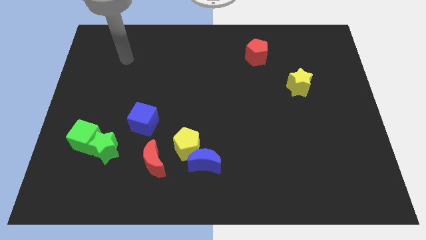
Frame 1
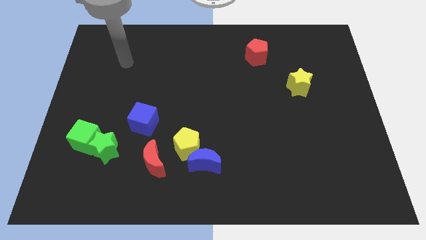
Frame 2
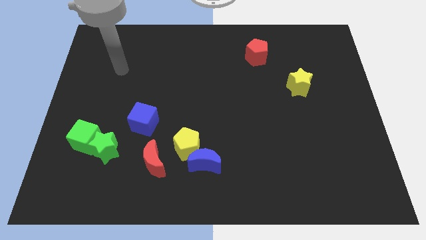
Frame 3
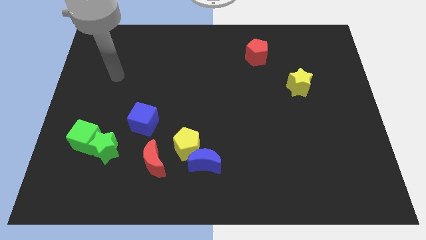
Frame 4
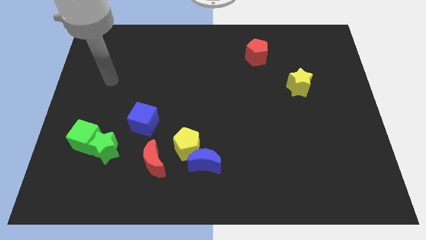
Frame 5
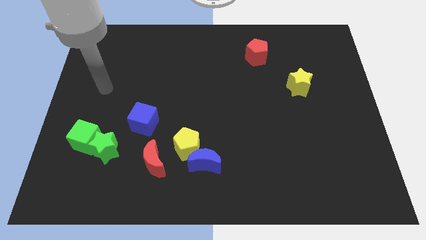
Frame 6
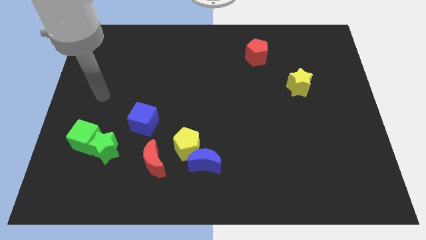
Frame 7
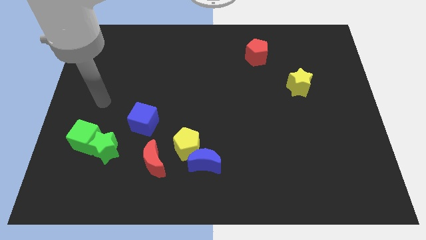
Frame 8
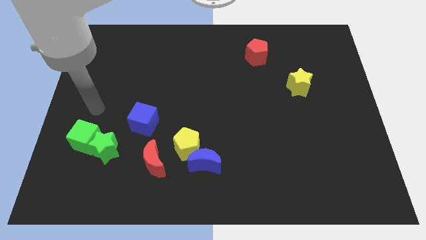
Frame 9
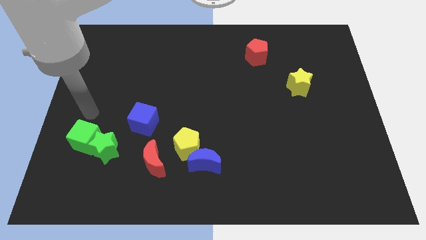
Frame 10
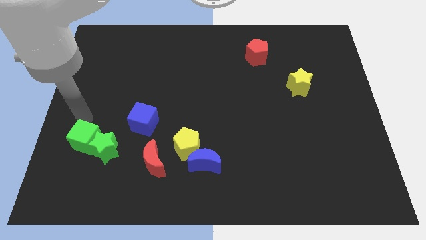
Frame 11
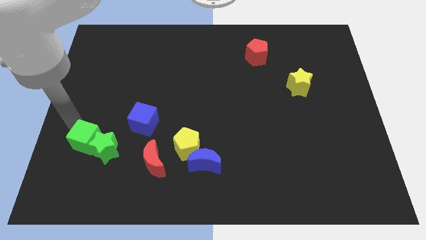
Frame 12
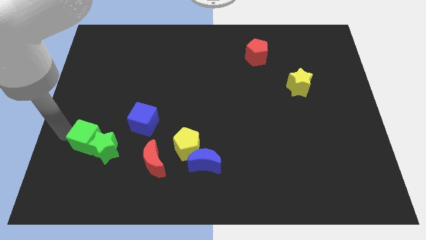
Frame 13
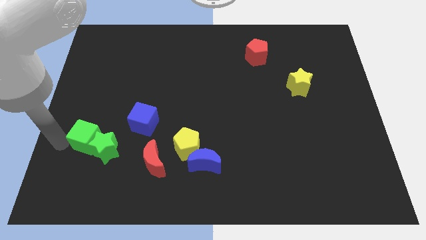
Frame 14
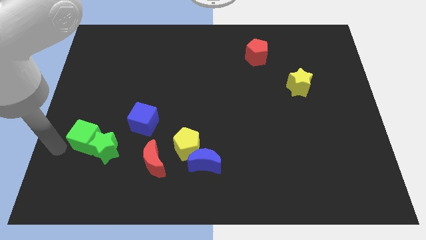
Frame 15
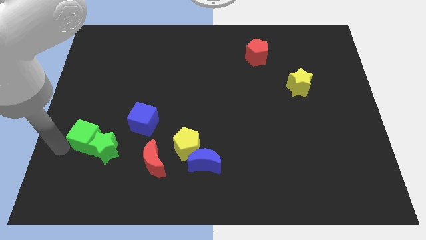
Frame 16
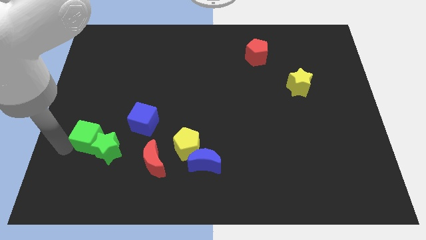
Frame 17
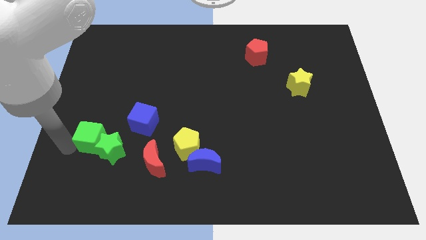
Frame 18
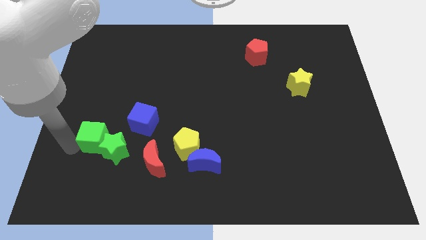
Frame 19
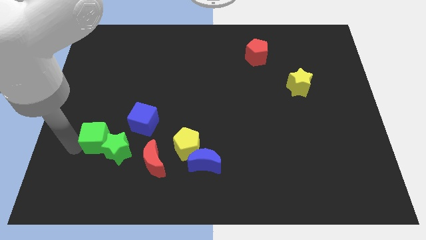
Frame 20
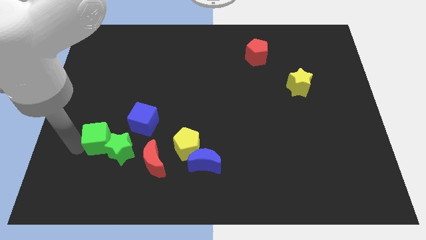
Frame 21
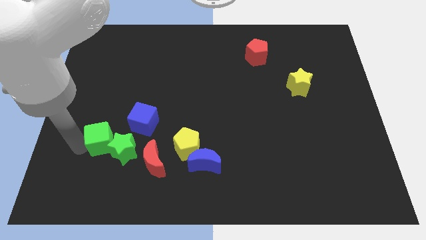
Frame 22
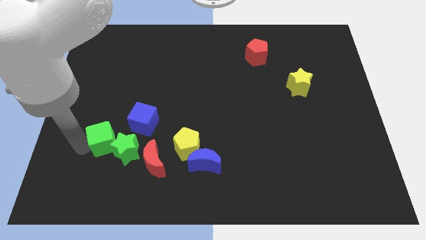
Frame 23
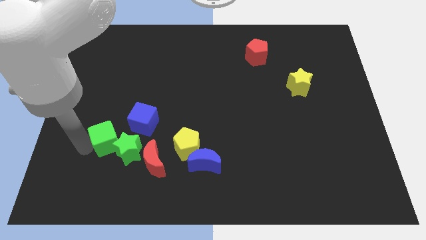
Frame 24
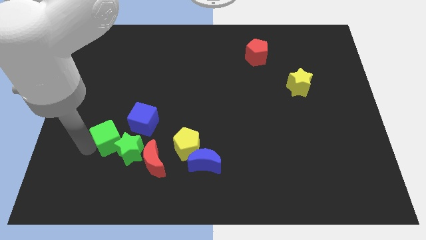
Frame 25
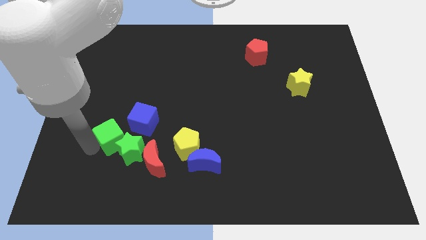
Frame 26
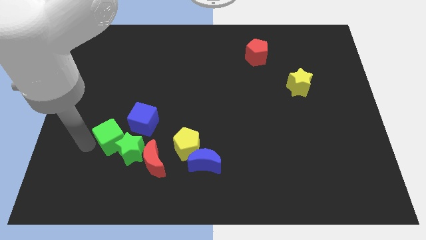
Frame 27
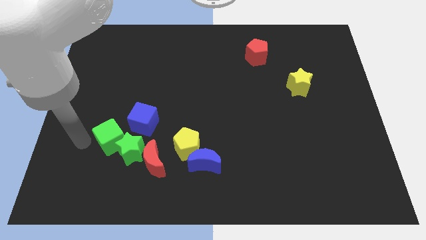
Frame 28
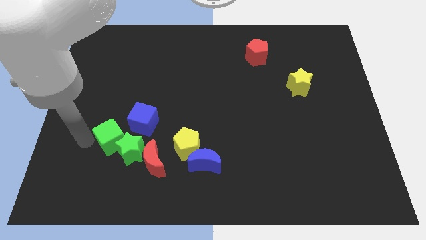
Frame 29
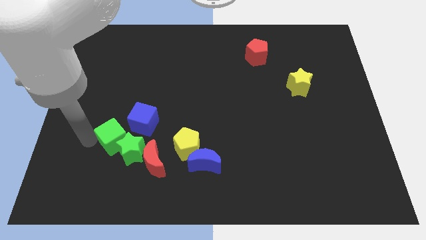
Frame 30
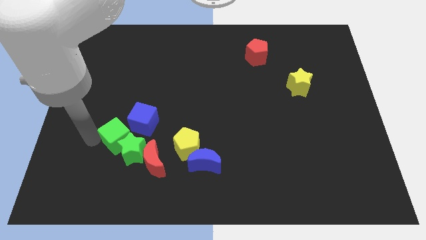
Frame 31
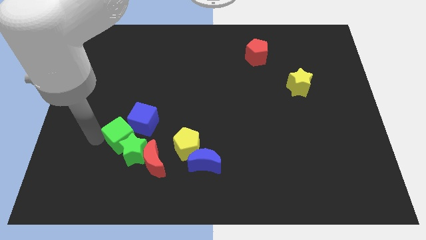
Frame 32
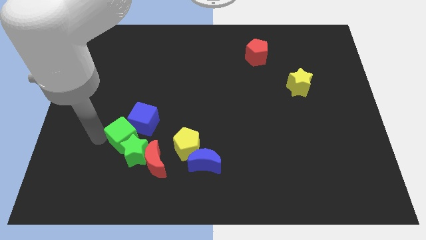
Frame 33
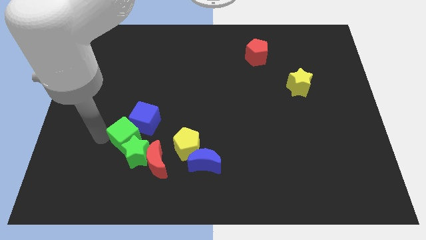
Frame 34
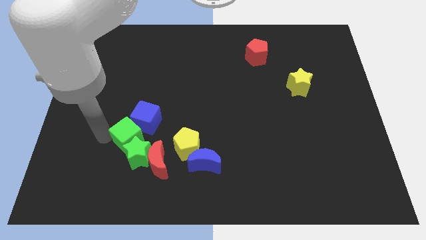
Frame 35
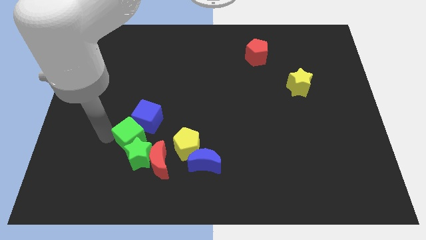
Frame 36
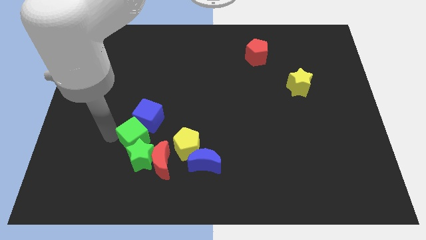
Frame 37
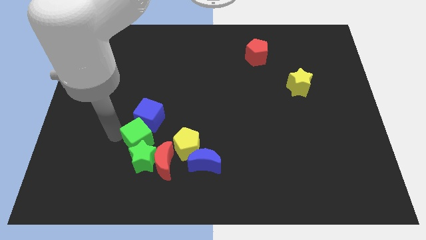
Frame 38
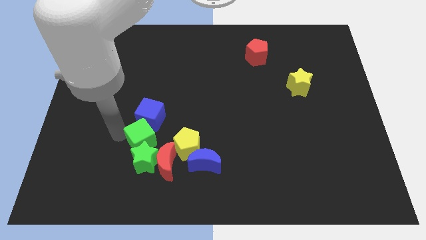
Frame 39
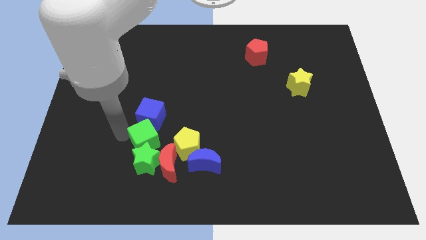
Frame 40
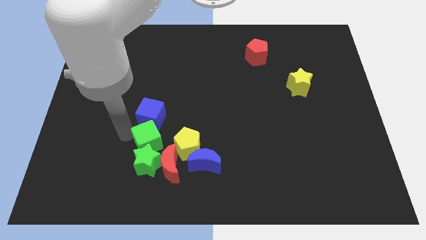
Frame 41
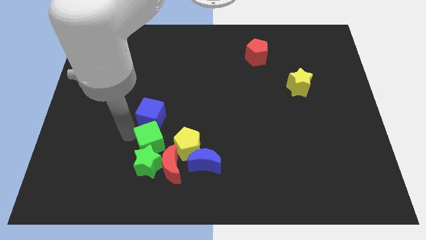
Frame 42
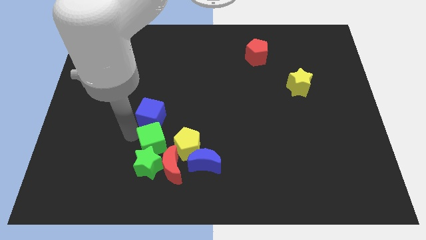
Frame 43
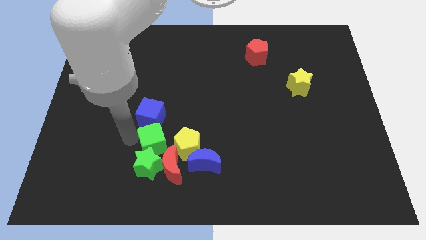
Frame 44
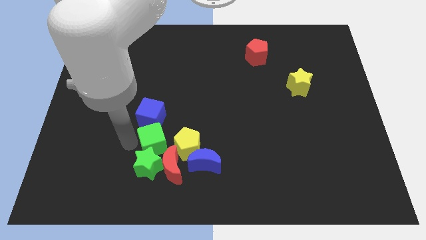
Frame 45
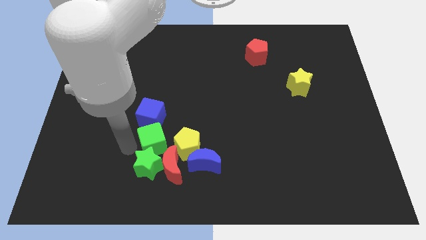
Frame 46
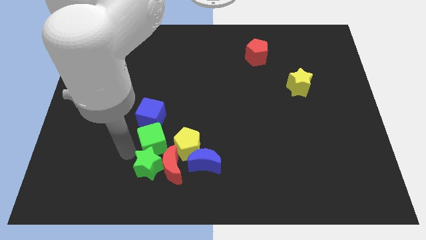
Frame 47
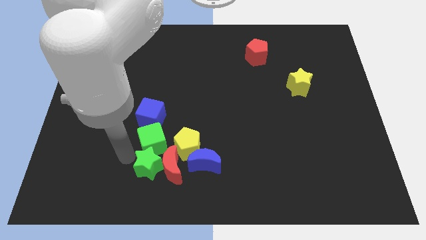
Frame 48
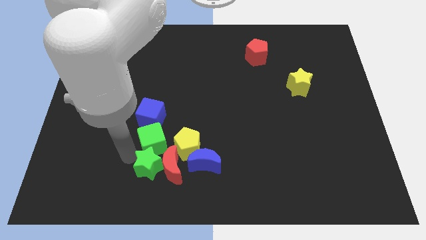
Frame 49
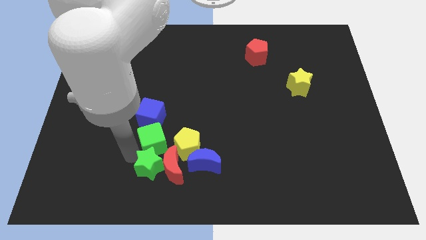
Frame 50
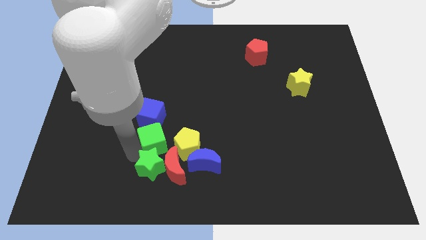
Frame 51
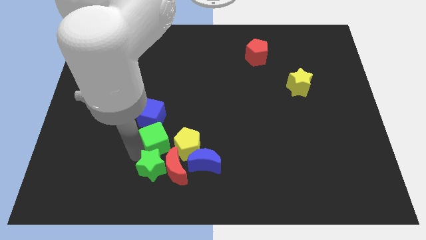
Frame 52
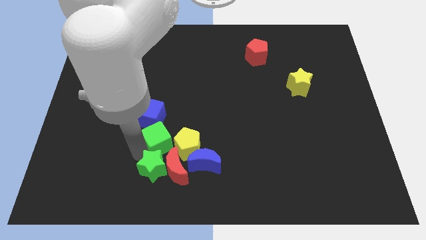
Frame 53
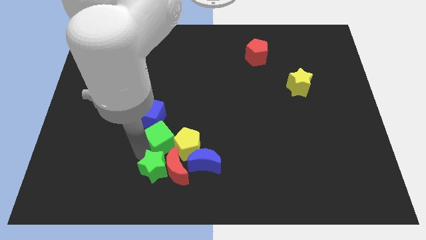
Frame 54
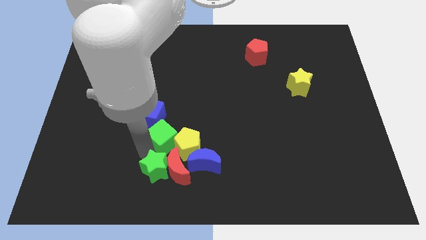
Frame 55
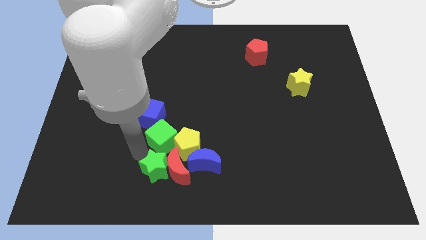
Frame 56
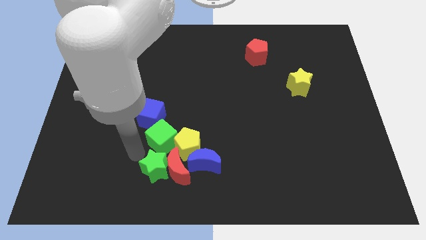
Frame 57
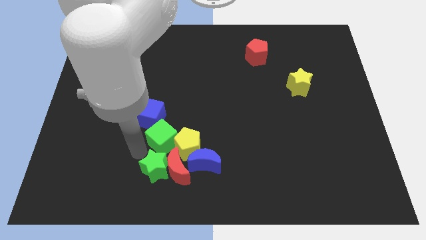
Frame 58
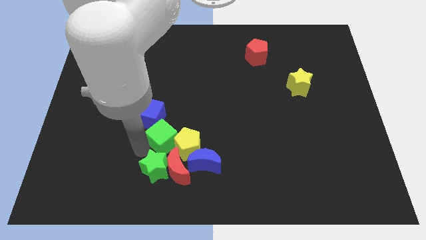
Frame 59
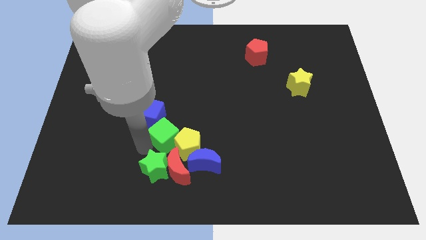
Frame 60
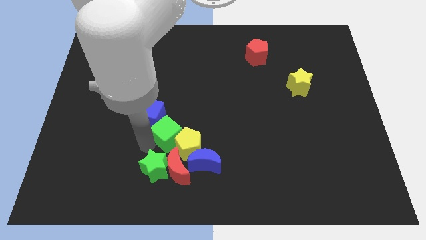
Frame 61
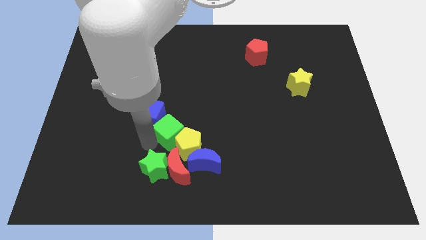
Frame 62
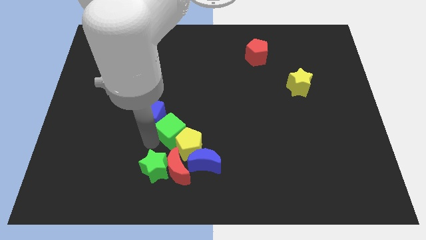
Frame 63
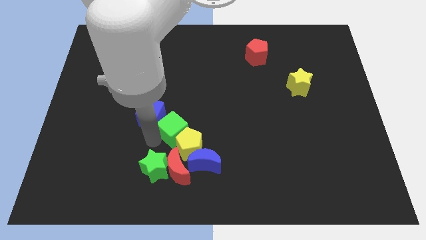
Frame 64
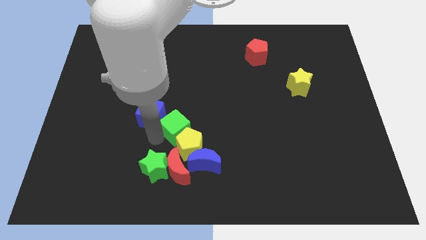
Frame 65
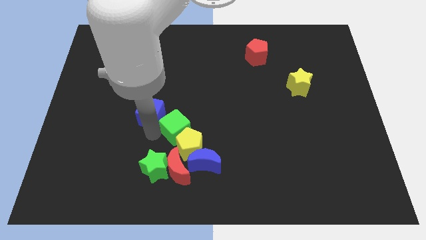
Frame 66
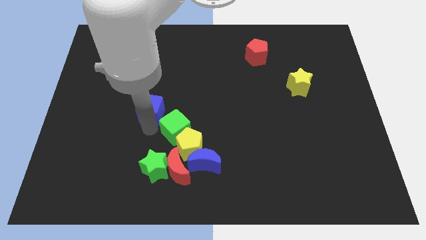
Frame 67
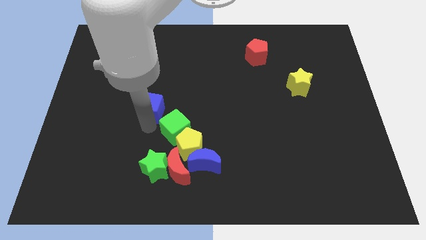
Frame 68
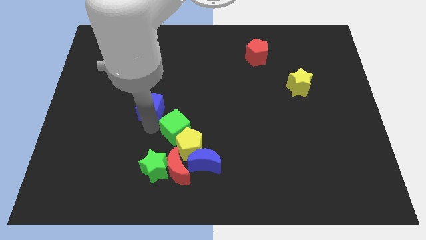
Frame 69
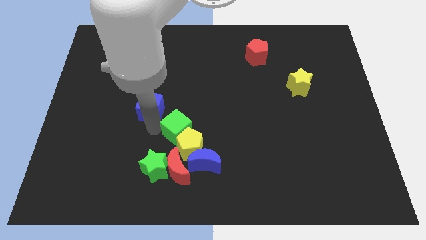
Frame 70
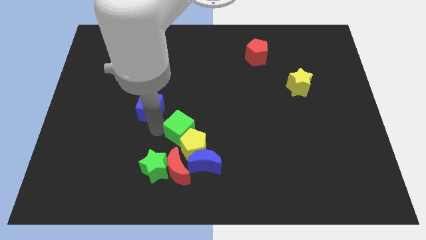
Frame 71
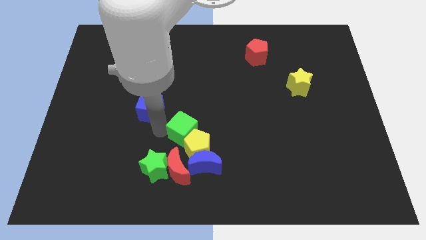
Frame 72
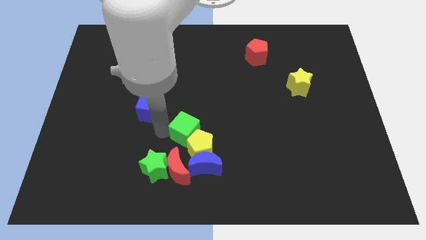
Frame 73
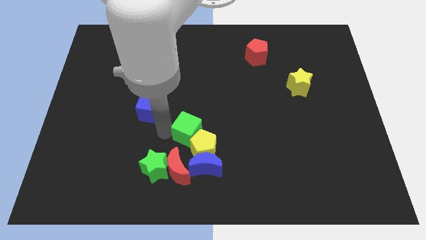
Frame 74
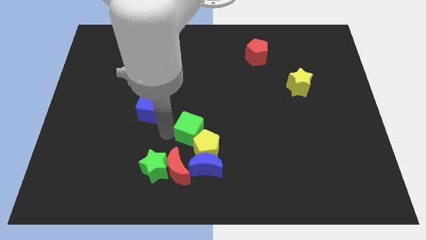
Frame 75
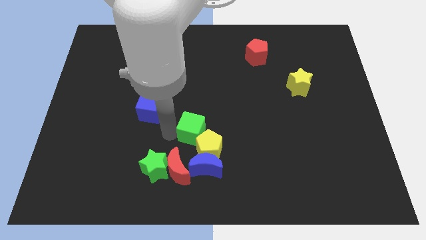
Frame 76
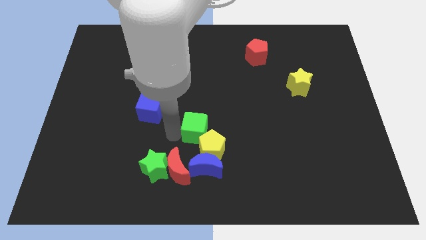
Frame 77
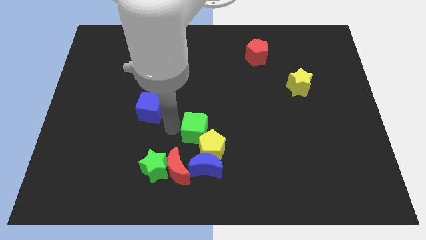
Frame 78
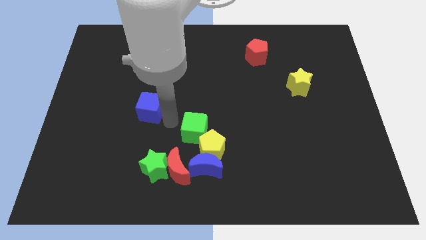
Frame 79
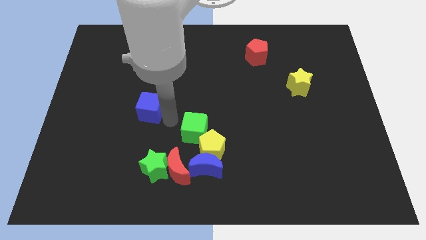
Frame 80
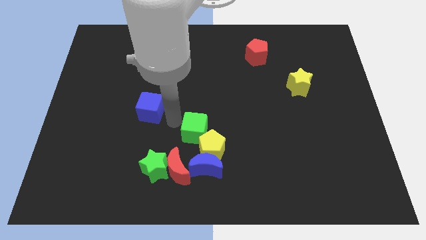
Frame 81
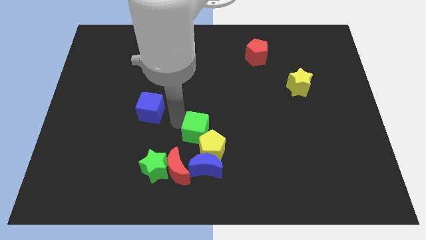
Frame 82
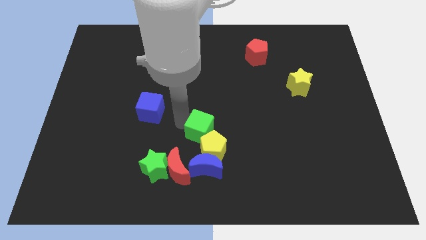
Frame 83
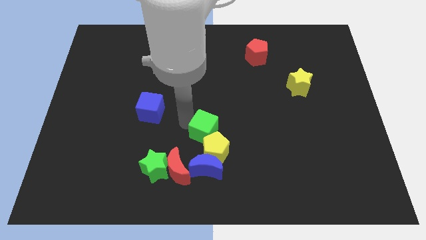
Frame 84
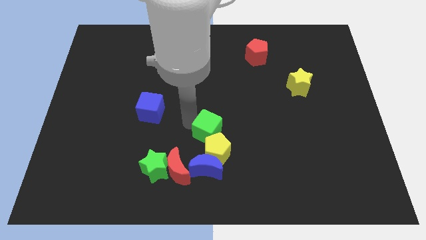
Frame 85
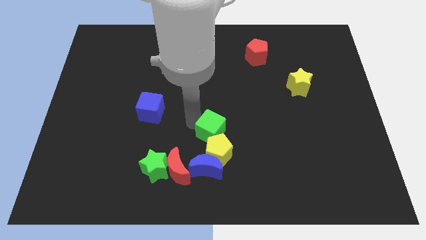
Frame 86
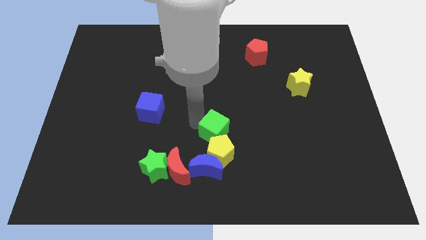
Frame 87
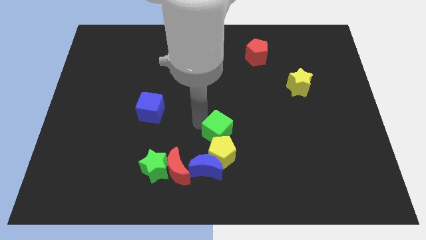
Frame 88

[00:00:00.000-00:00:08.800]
put the green cube diagonally up and to the right of the blue moon
